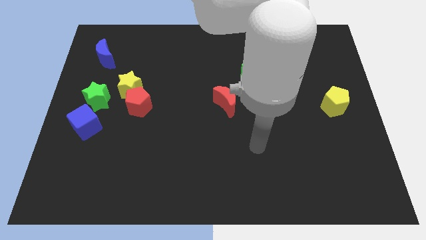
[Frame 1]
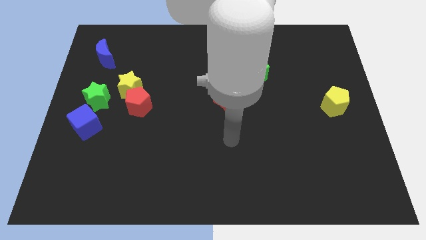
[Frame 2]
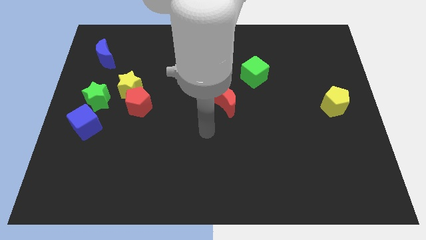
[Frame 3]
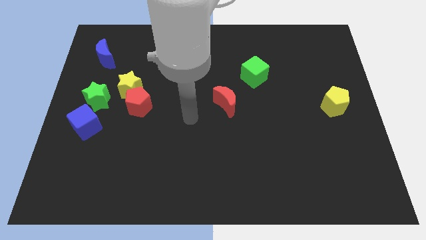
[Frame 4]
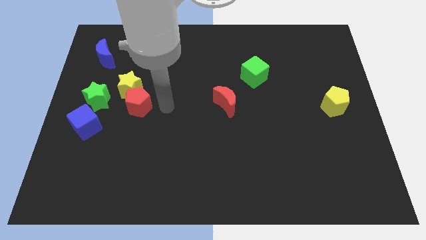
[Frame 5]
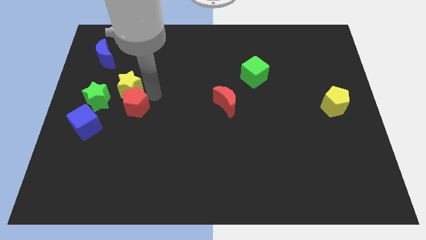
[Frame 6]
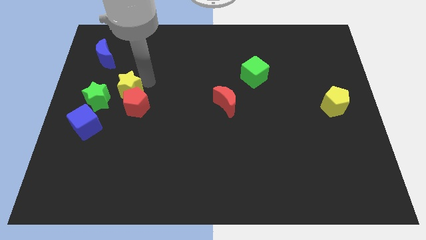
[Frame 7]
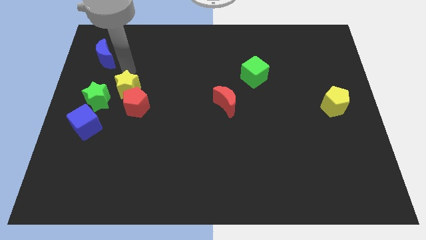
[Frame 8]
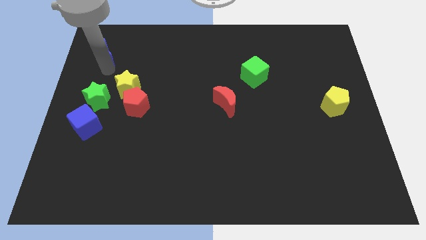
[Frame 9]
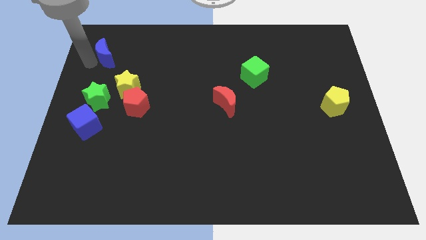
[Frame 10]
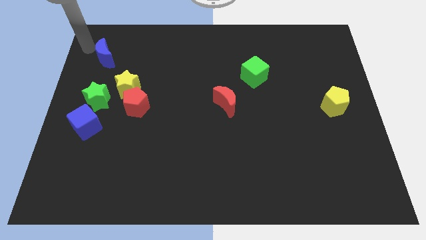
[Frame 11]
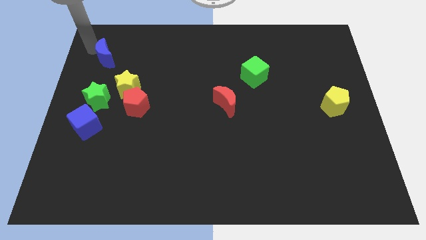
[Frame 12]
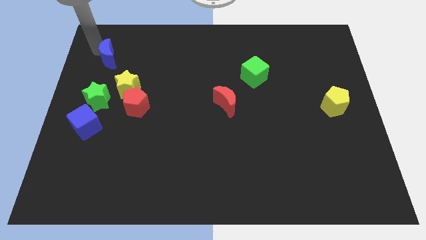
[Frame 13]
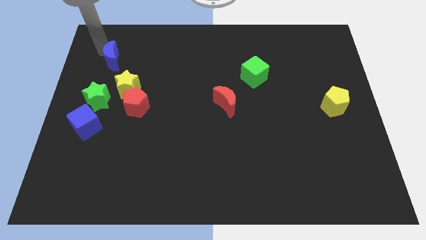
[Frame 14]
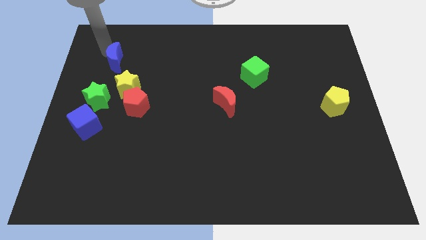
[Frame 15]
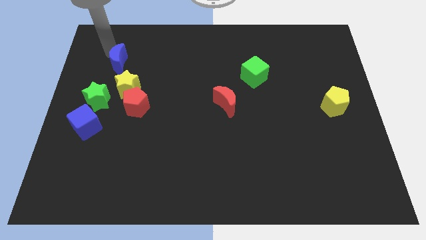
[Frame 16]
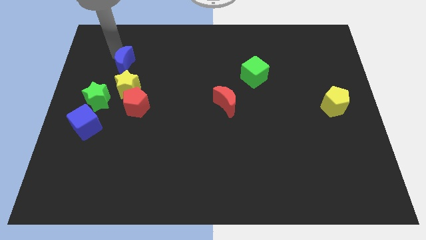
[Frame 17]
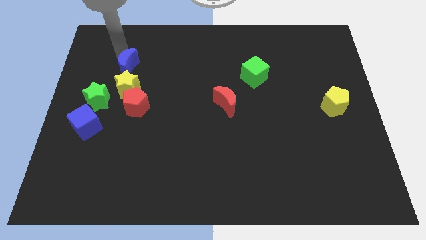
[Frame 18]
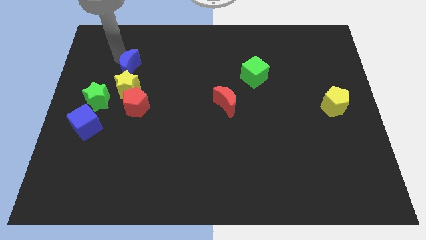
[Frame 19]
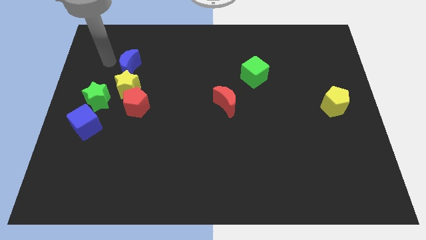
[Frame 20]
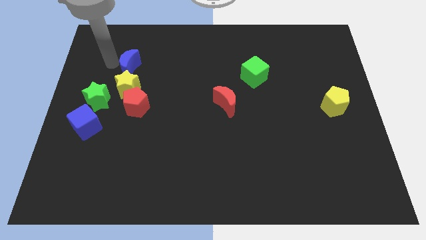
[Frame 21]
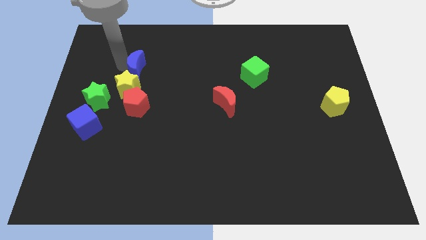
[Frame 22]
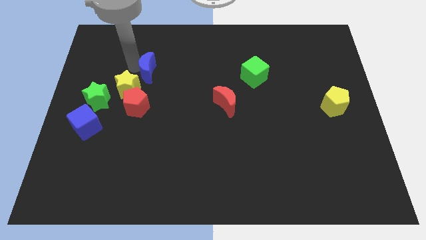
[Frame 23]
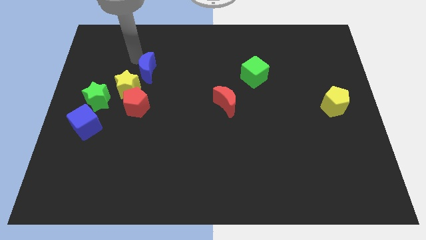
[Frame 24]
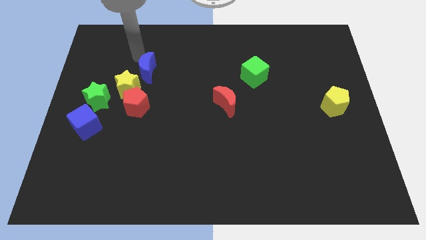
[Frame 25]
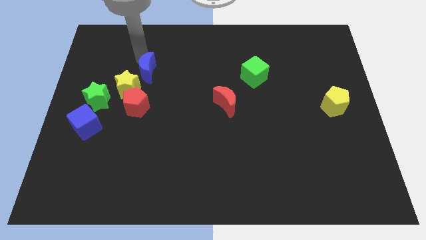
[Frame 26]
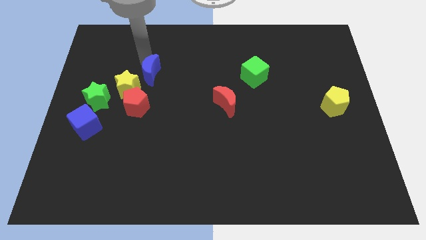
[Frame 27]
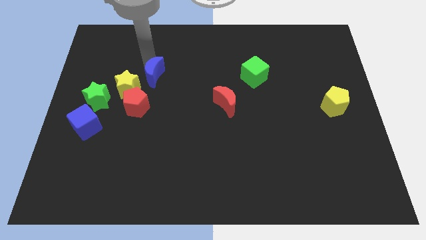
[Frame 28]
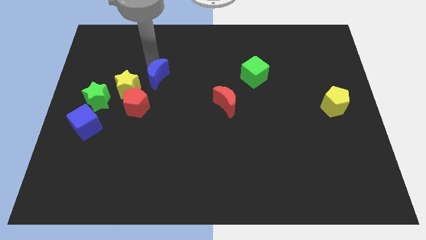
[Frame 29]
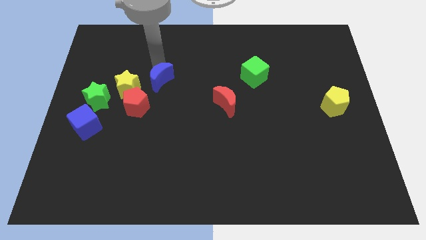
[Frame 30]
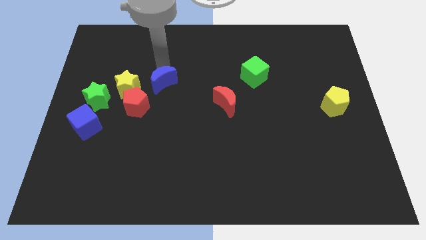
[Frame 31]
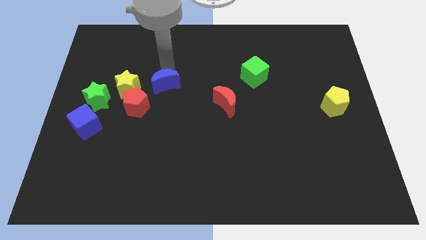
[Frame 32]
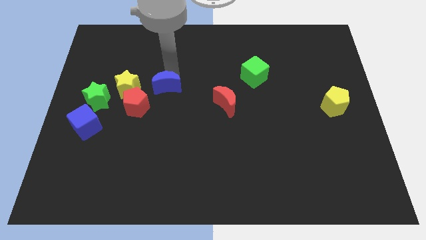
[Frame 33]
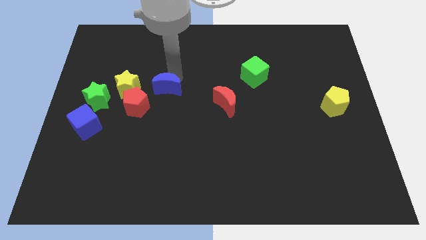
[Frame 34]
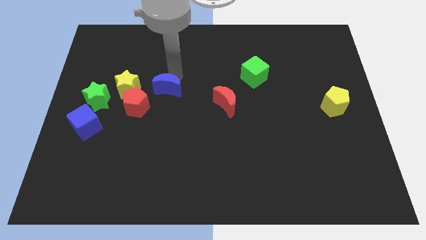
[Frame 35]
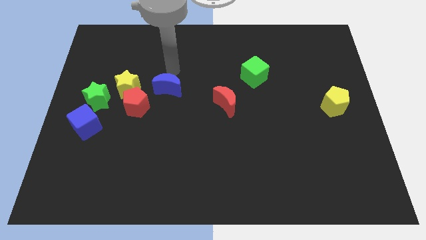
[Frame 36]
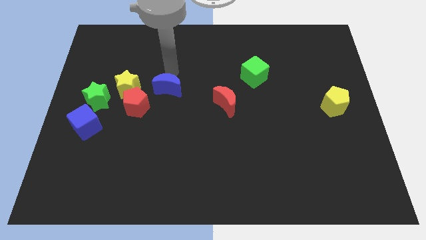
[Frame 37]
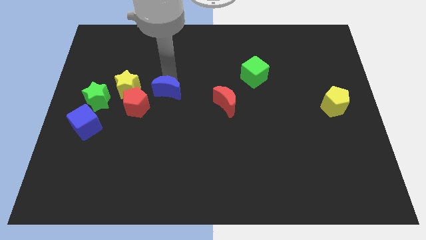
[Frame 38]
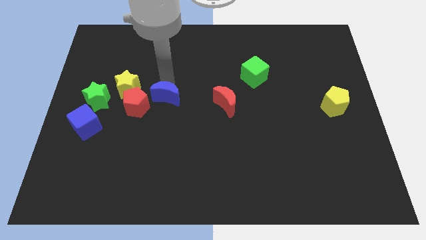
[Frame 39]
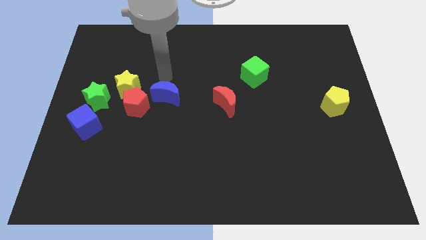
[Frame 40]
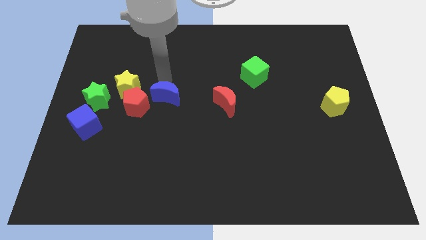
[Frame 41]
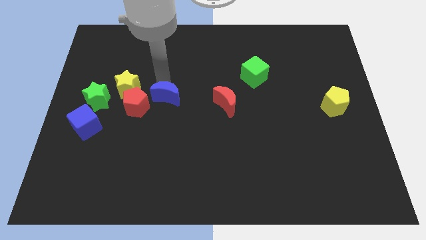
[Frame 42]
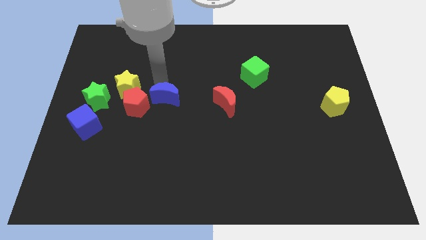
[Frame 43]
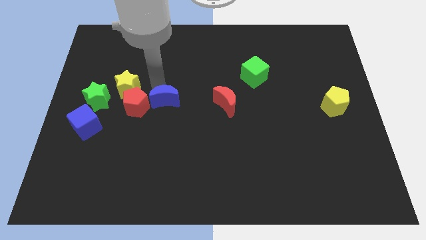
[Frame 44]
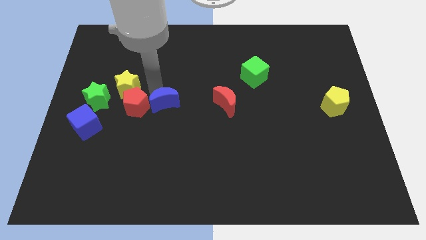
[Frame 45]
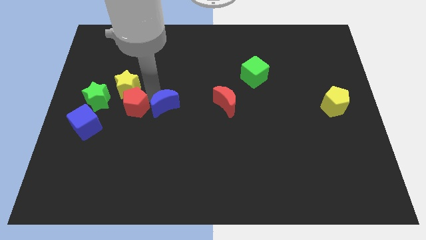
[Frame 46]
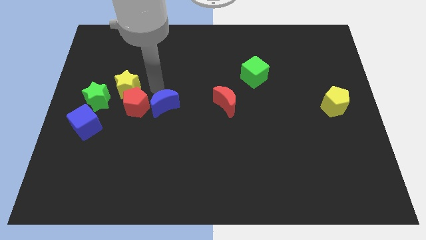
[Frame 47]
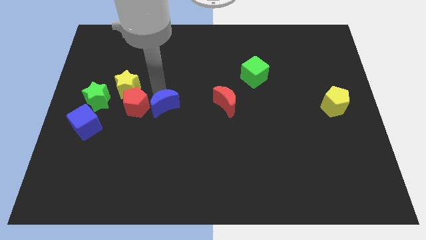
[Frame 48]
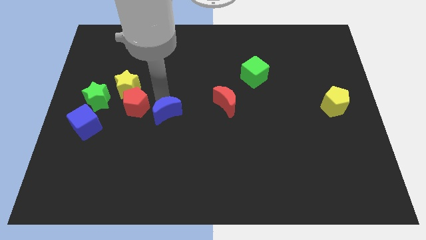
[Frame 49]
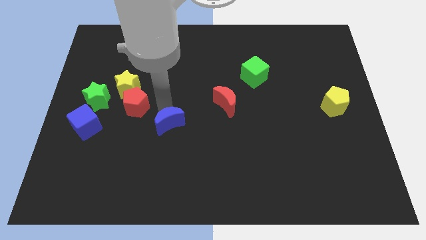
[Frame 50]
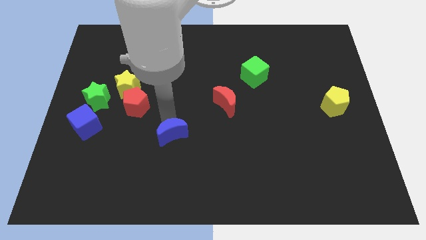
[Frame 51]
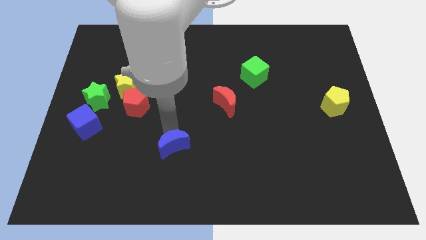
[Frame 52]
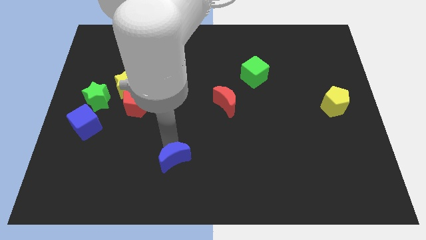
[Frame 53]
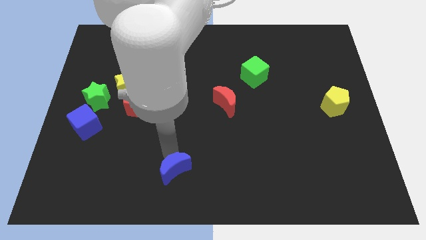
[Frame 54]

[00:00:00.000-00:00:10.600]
push the blue moon to the bottom side

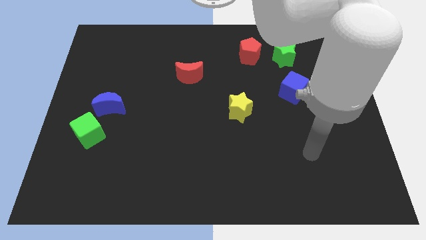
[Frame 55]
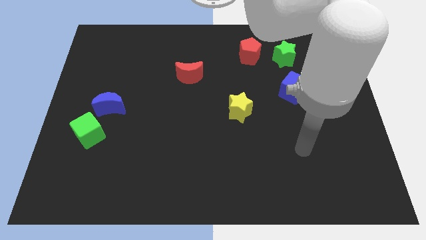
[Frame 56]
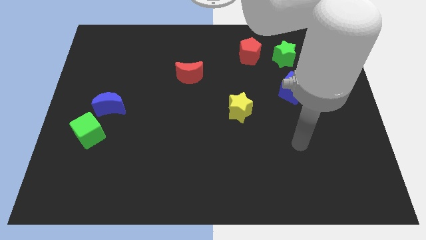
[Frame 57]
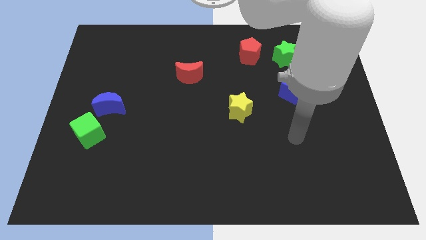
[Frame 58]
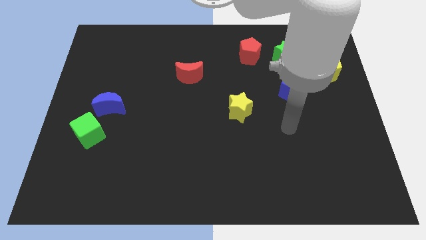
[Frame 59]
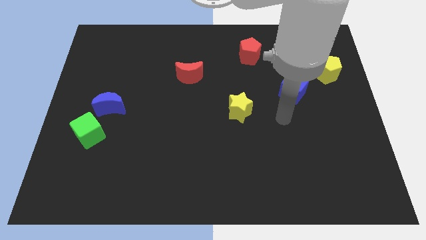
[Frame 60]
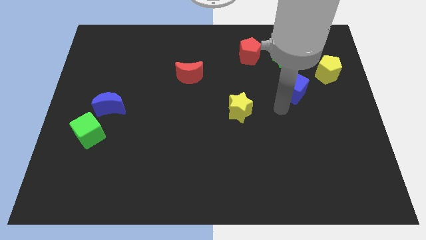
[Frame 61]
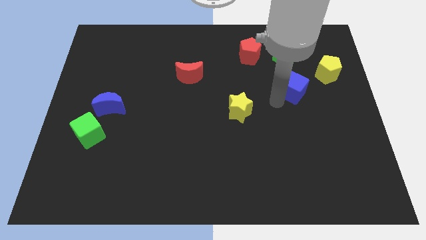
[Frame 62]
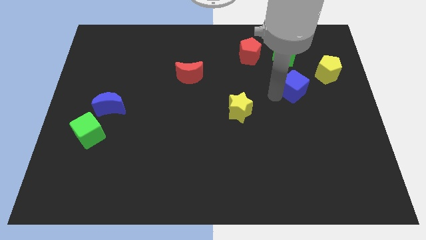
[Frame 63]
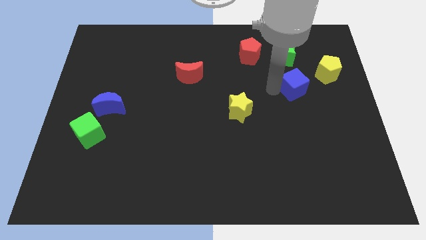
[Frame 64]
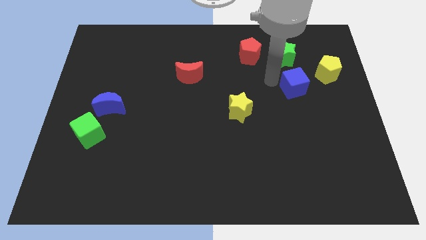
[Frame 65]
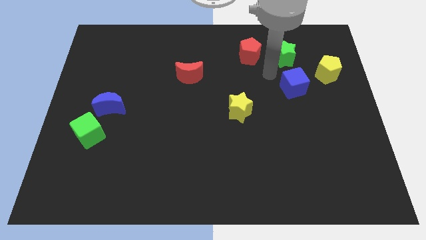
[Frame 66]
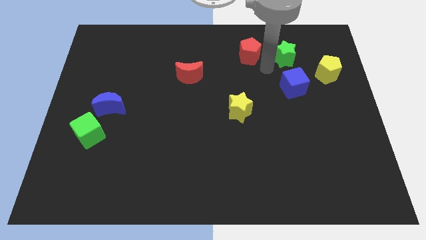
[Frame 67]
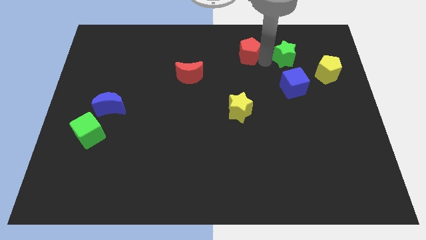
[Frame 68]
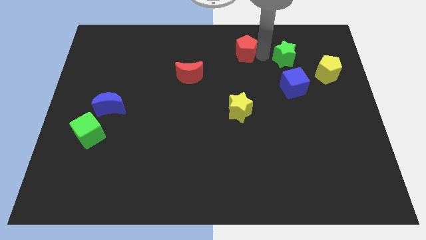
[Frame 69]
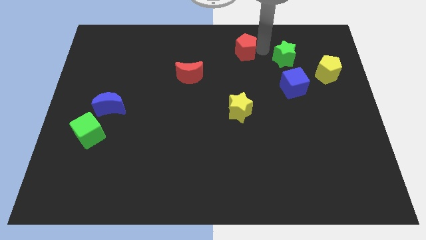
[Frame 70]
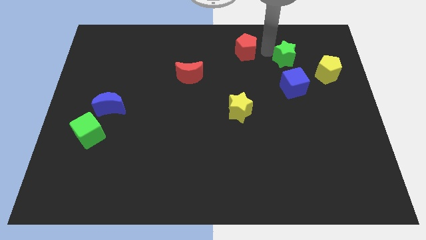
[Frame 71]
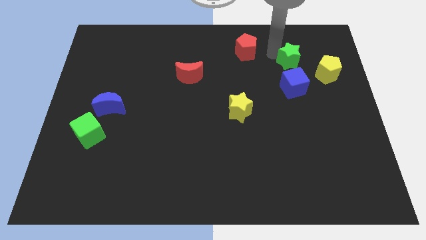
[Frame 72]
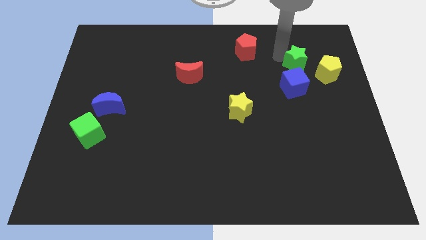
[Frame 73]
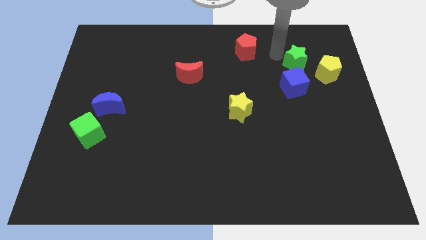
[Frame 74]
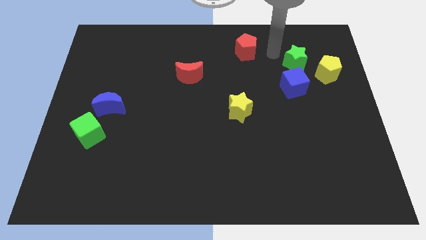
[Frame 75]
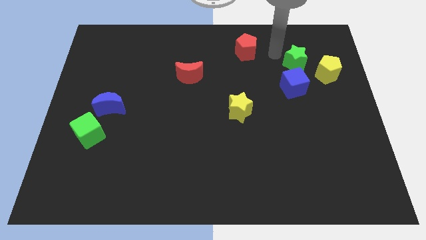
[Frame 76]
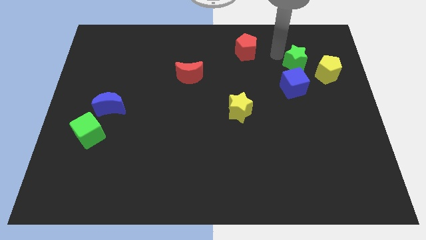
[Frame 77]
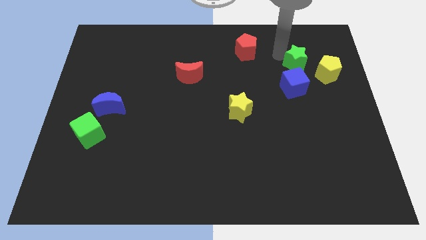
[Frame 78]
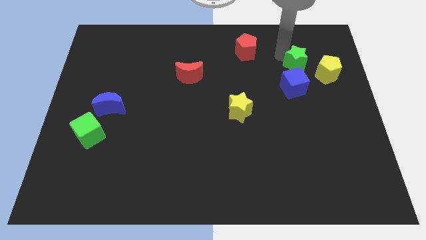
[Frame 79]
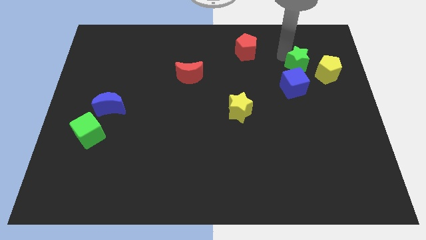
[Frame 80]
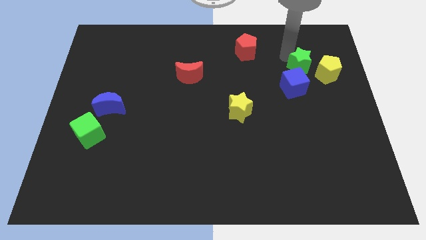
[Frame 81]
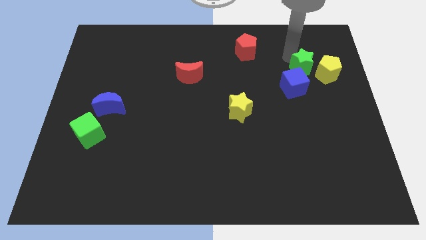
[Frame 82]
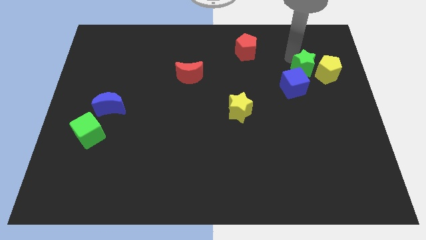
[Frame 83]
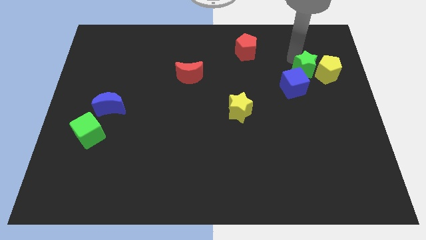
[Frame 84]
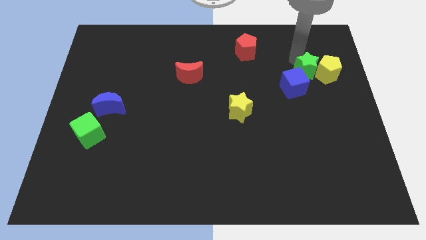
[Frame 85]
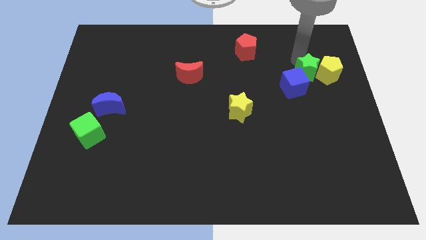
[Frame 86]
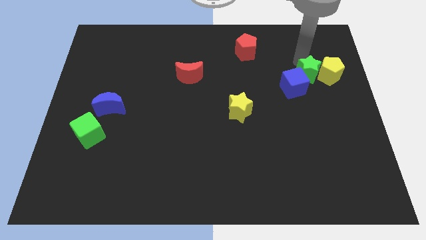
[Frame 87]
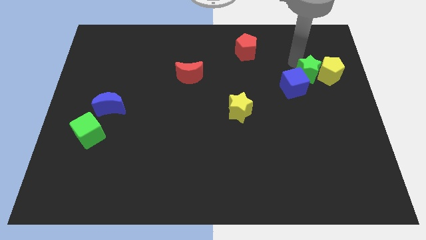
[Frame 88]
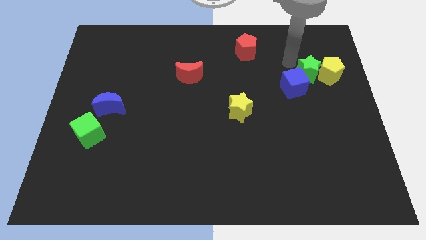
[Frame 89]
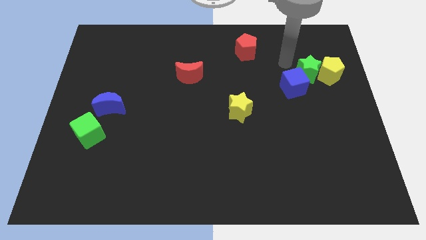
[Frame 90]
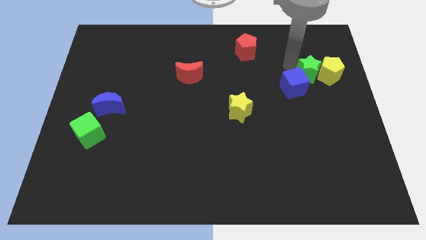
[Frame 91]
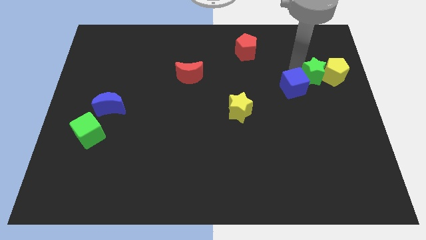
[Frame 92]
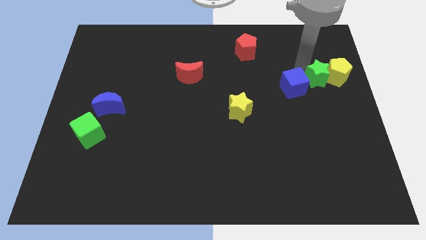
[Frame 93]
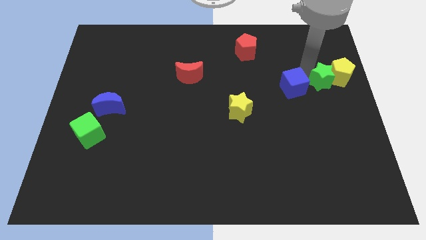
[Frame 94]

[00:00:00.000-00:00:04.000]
move the green star to the right side
